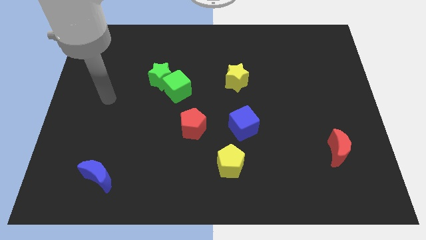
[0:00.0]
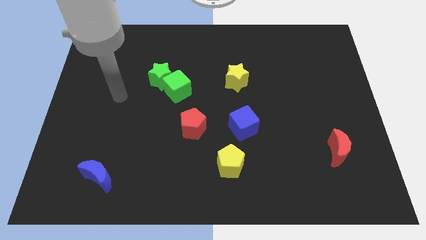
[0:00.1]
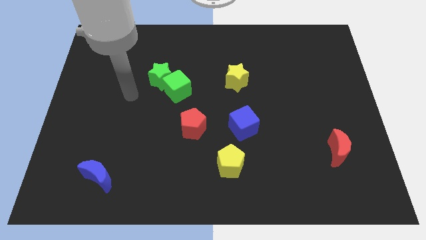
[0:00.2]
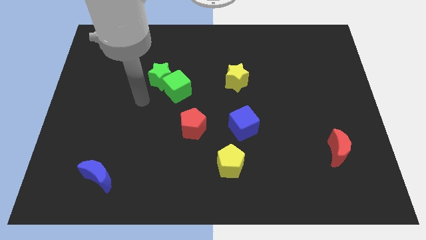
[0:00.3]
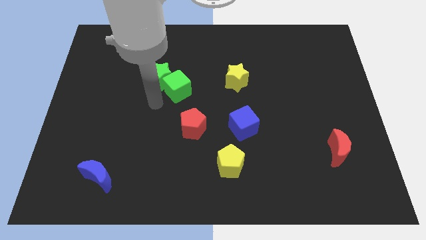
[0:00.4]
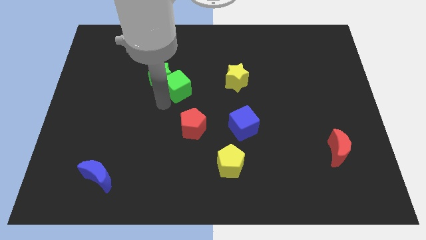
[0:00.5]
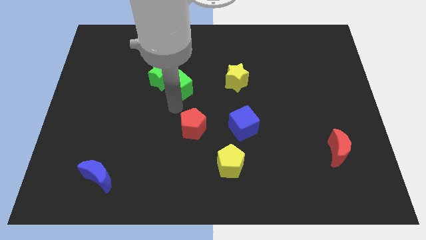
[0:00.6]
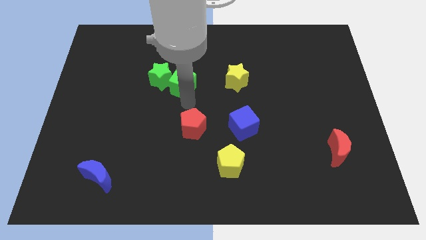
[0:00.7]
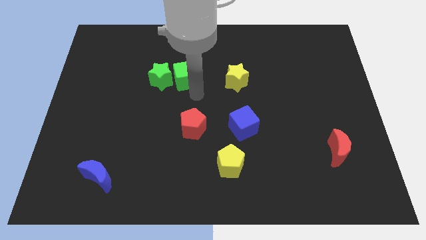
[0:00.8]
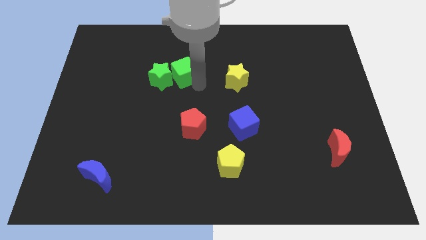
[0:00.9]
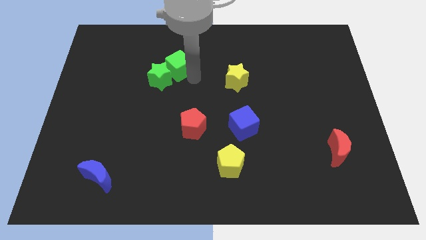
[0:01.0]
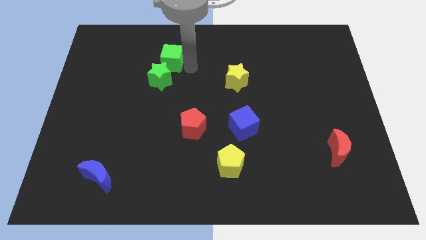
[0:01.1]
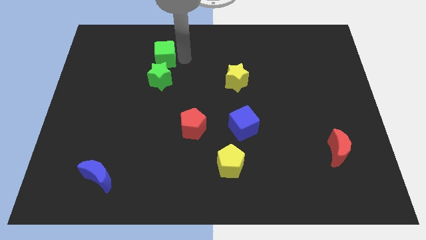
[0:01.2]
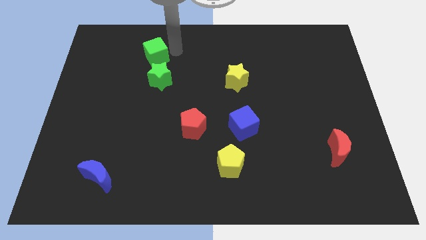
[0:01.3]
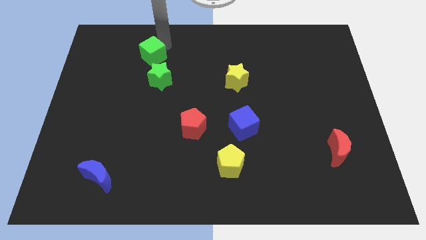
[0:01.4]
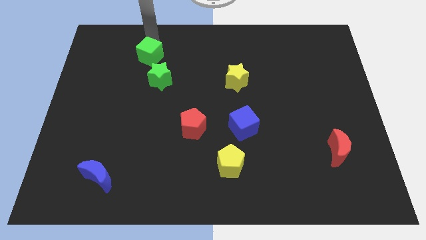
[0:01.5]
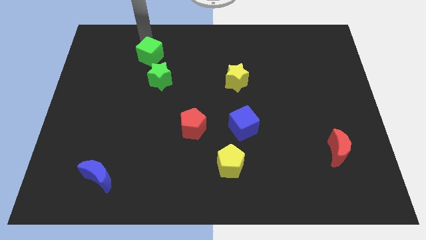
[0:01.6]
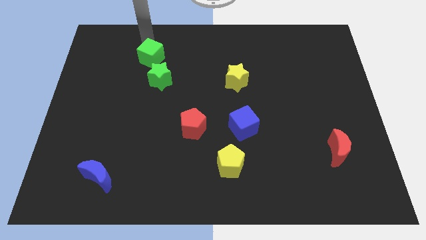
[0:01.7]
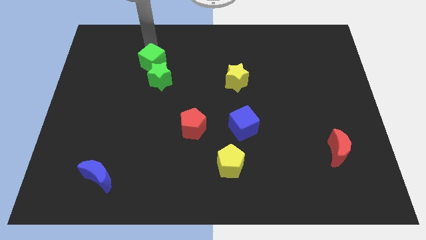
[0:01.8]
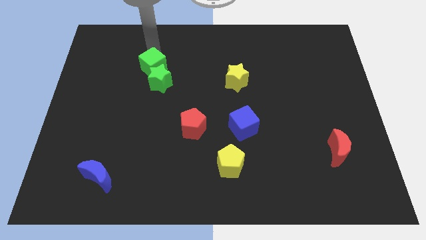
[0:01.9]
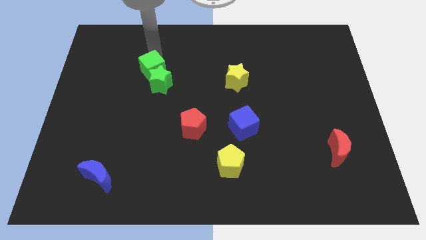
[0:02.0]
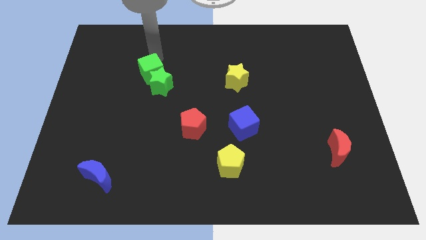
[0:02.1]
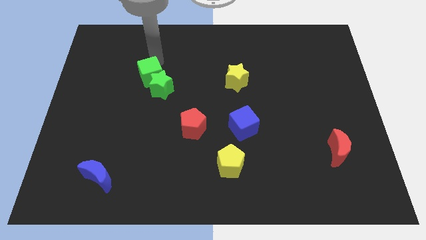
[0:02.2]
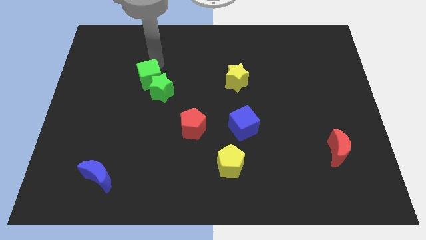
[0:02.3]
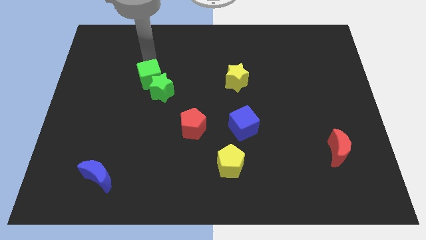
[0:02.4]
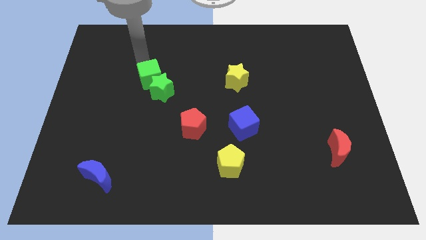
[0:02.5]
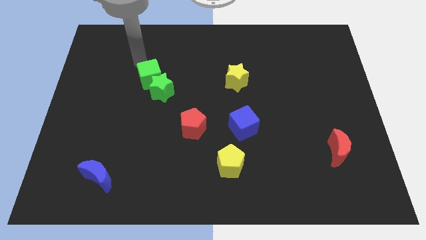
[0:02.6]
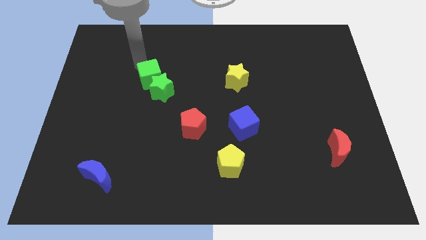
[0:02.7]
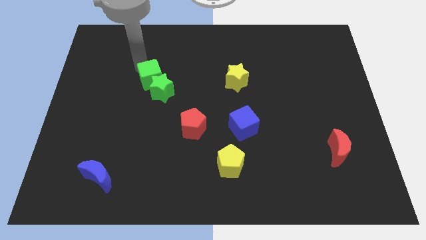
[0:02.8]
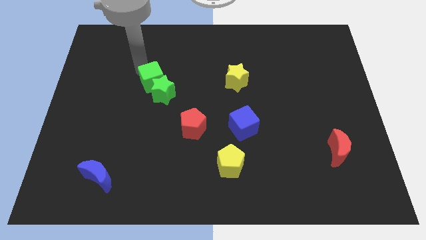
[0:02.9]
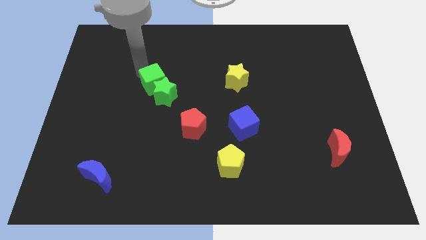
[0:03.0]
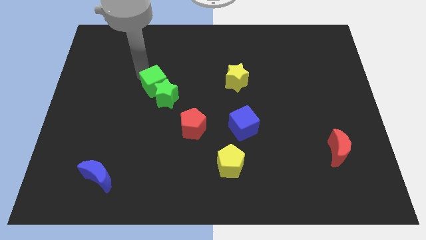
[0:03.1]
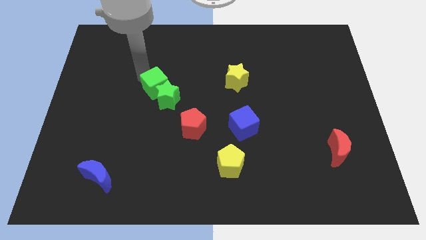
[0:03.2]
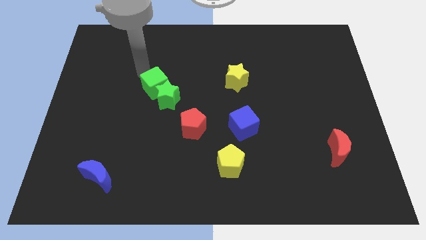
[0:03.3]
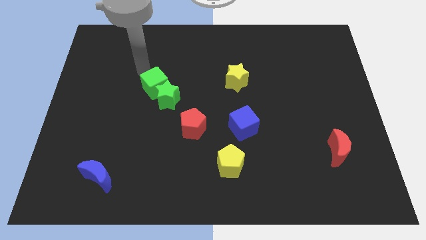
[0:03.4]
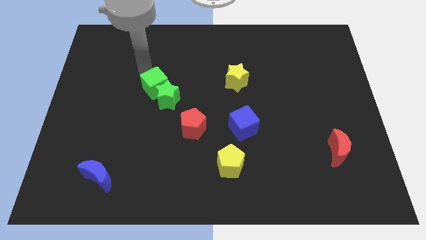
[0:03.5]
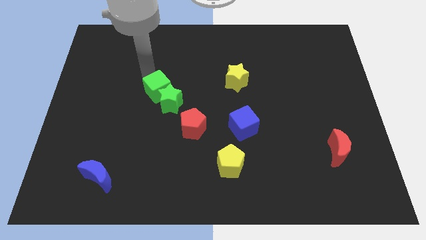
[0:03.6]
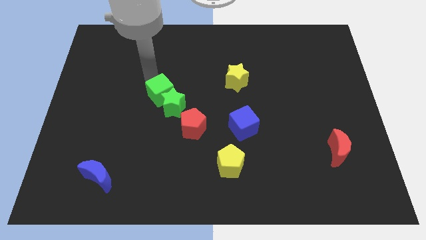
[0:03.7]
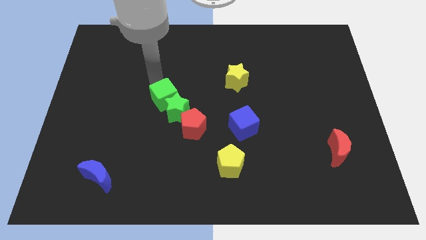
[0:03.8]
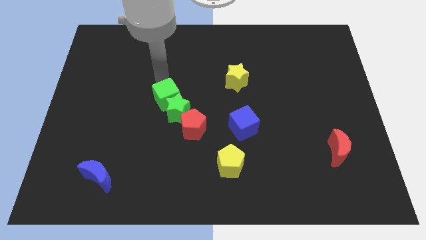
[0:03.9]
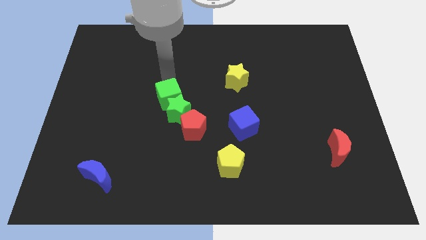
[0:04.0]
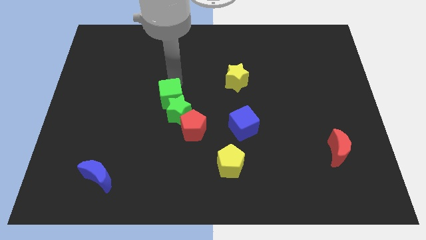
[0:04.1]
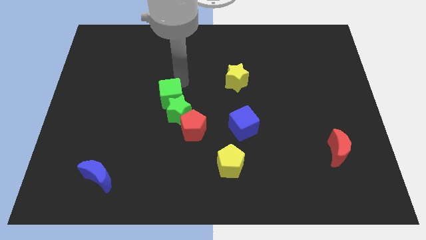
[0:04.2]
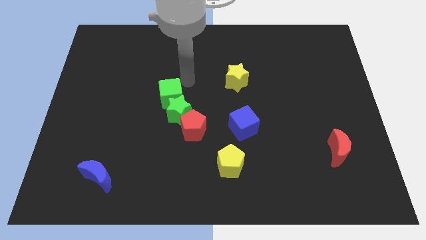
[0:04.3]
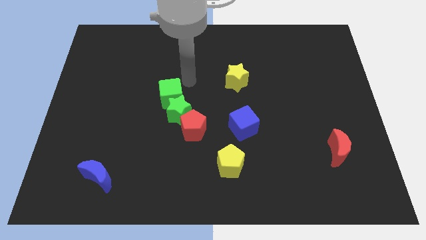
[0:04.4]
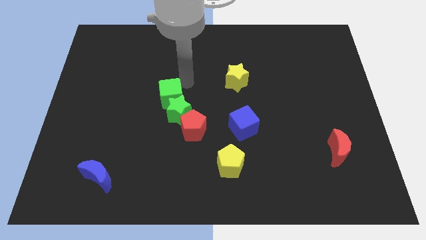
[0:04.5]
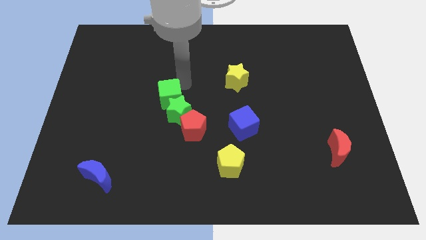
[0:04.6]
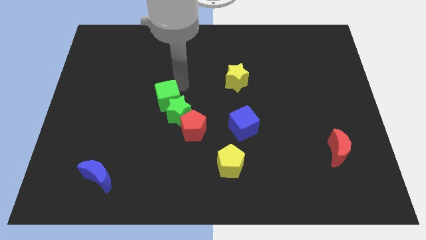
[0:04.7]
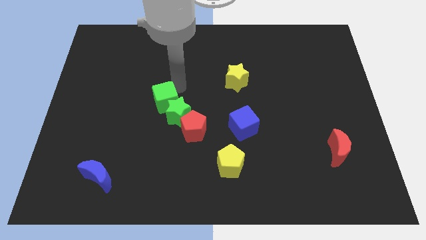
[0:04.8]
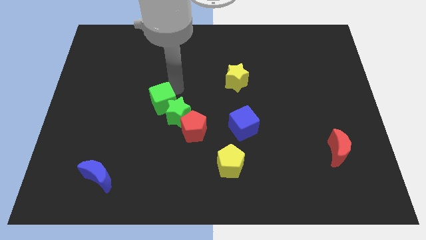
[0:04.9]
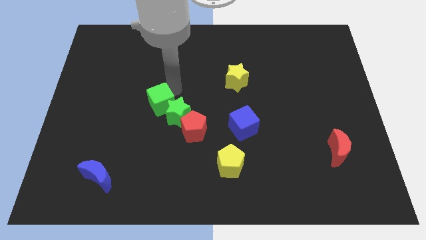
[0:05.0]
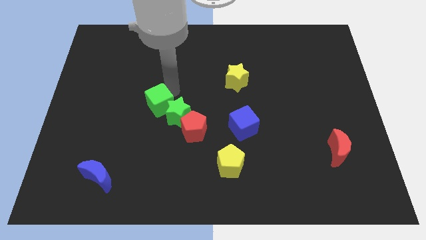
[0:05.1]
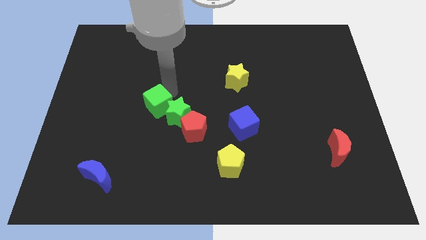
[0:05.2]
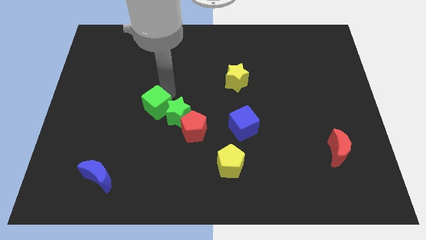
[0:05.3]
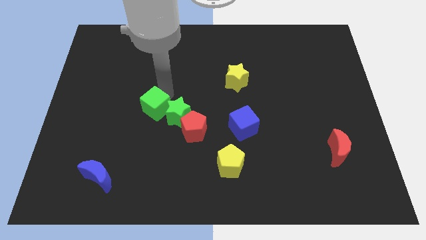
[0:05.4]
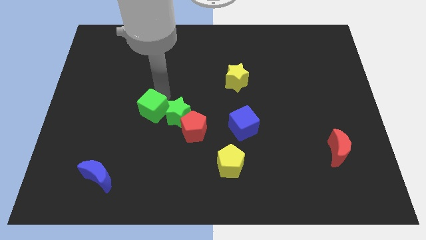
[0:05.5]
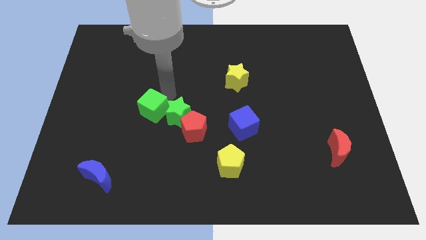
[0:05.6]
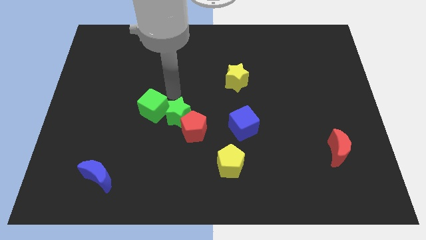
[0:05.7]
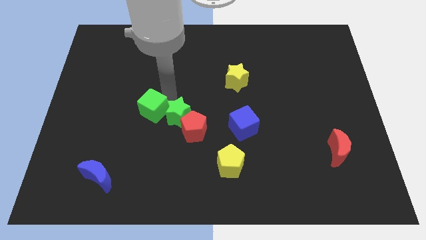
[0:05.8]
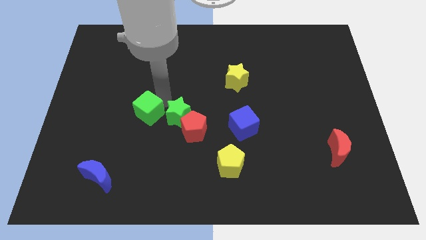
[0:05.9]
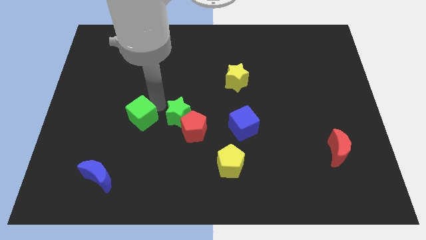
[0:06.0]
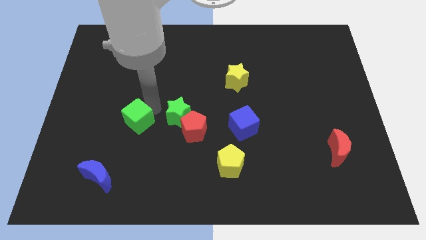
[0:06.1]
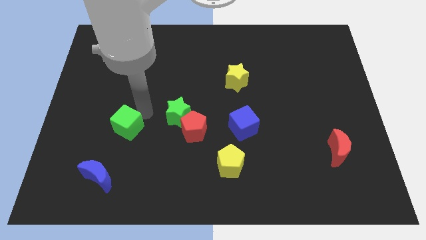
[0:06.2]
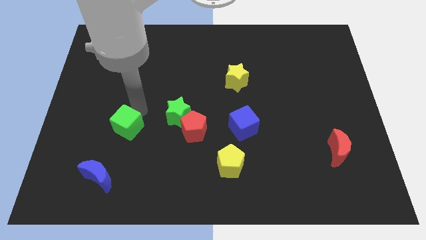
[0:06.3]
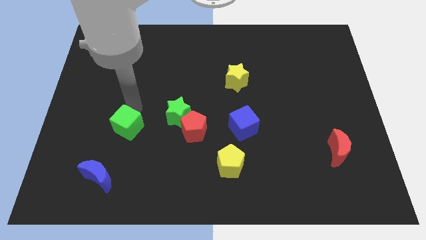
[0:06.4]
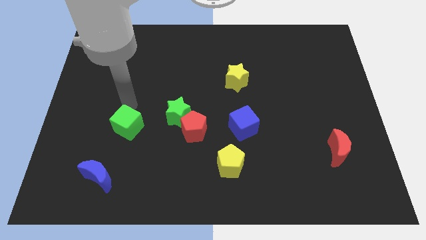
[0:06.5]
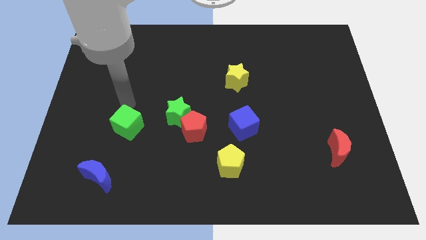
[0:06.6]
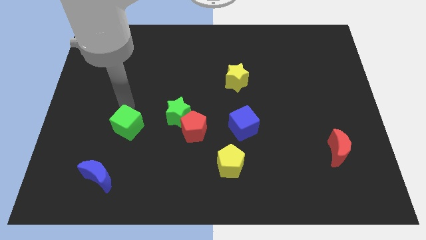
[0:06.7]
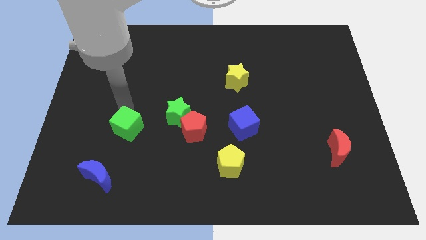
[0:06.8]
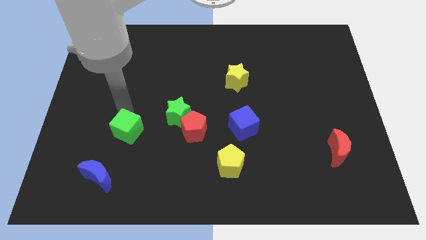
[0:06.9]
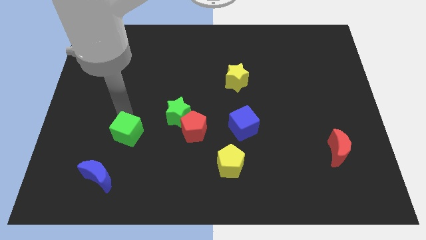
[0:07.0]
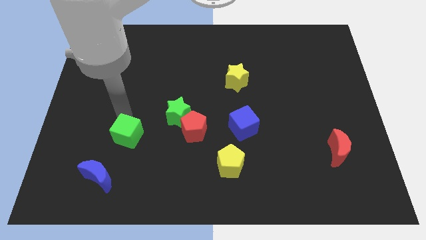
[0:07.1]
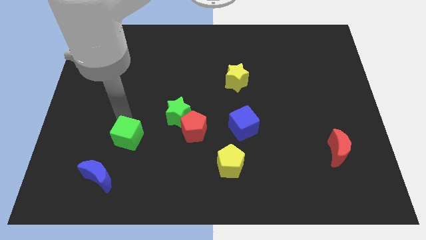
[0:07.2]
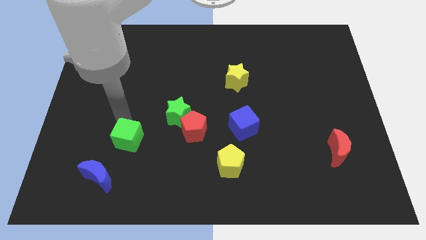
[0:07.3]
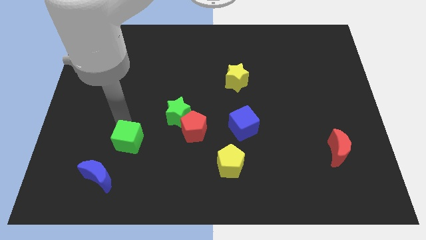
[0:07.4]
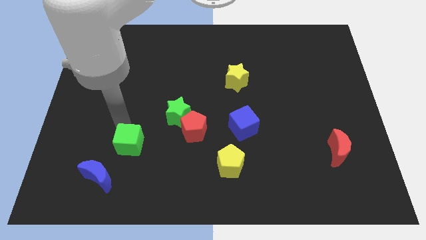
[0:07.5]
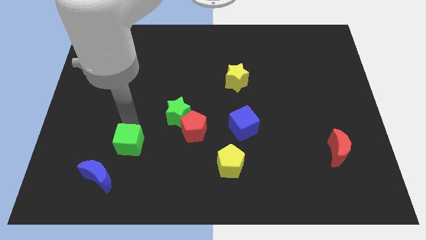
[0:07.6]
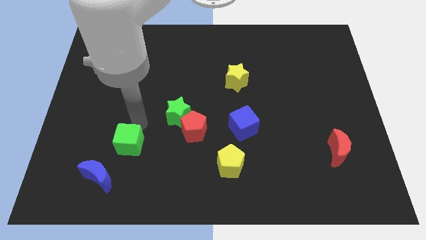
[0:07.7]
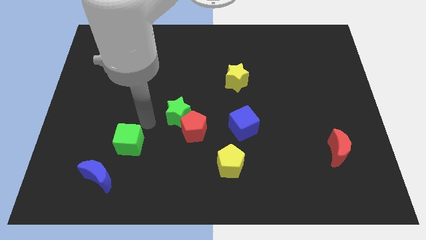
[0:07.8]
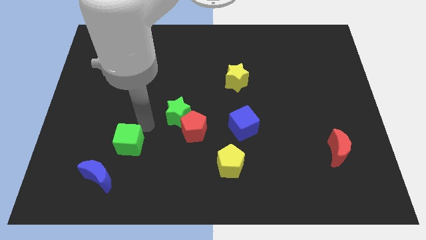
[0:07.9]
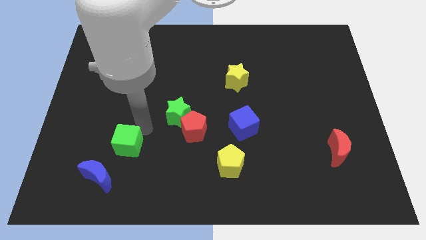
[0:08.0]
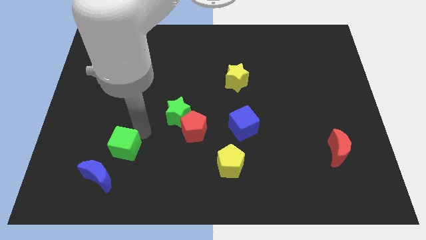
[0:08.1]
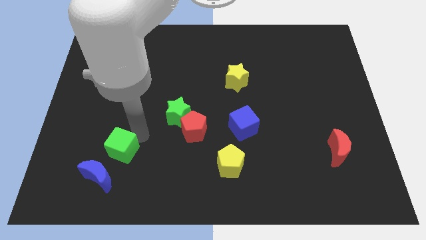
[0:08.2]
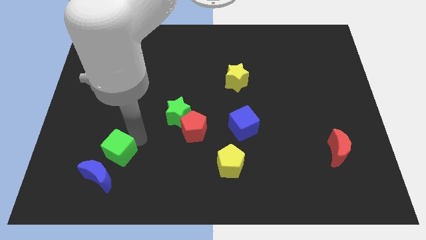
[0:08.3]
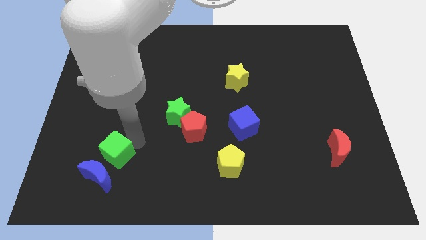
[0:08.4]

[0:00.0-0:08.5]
put the green cube next to the blue moon

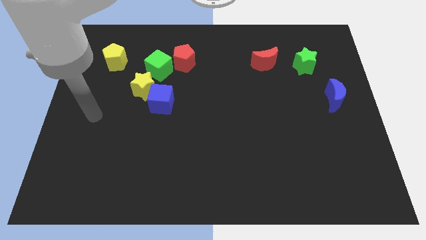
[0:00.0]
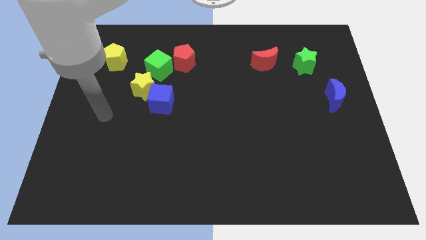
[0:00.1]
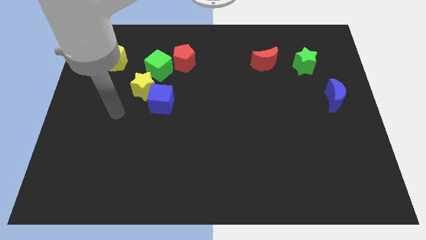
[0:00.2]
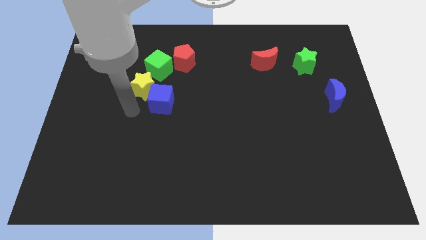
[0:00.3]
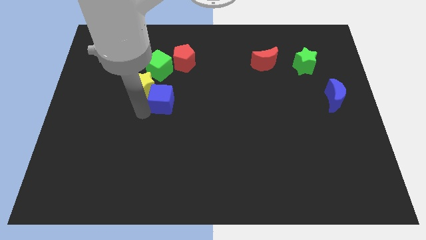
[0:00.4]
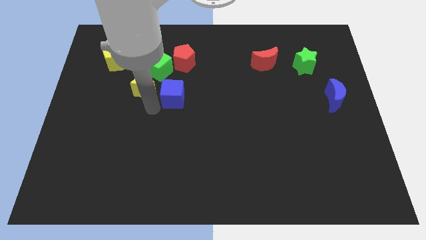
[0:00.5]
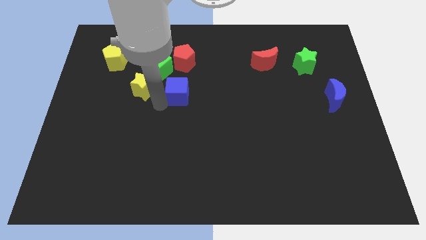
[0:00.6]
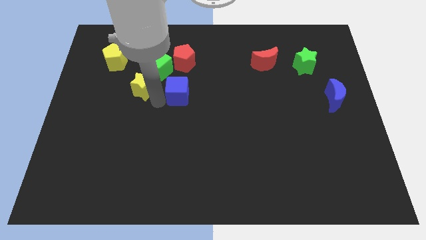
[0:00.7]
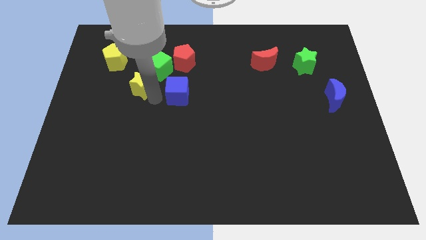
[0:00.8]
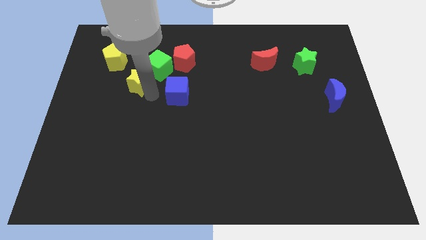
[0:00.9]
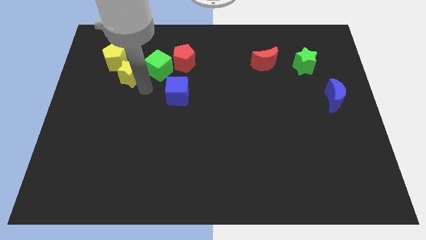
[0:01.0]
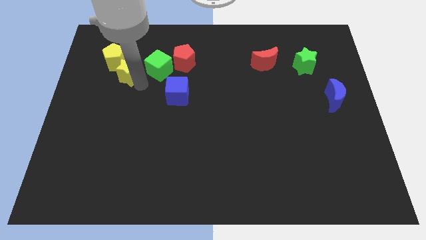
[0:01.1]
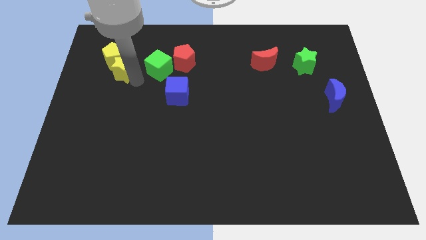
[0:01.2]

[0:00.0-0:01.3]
move the yellow star towards the yellow pentagon
